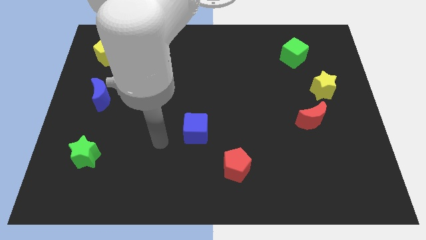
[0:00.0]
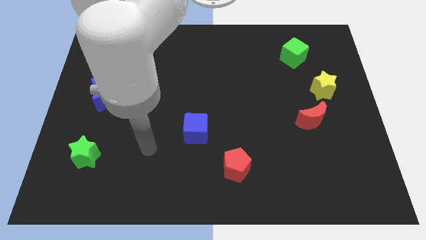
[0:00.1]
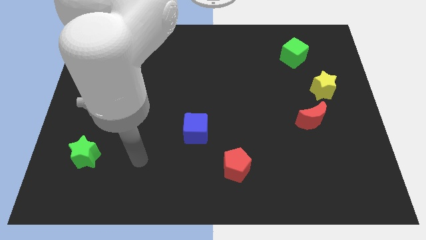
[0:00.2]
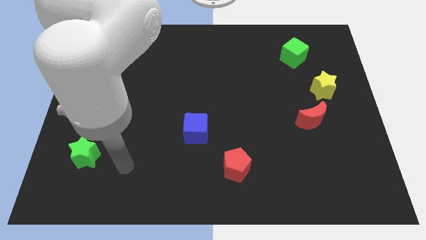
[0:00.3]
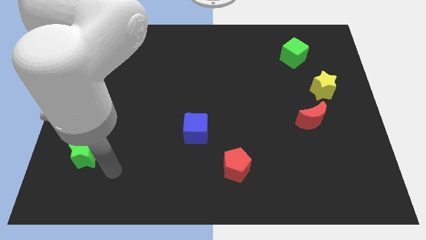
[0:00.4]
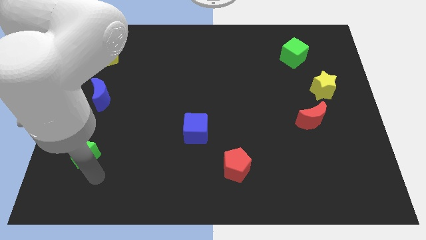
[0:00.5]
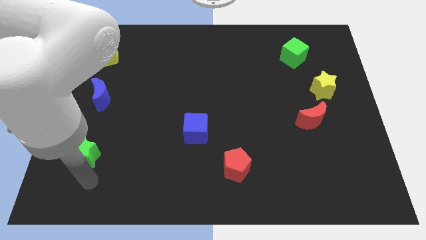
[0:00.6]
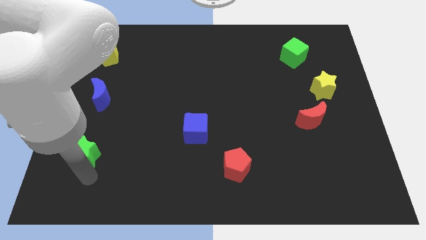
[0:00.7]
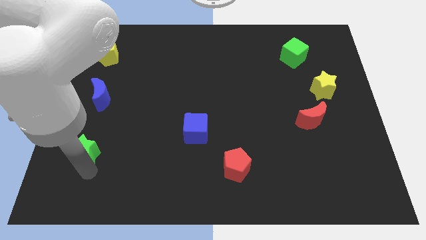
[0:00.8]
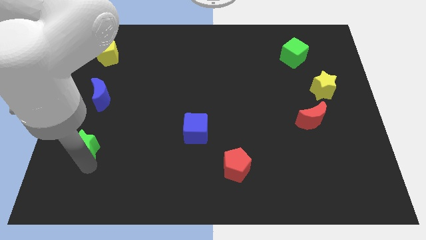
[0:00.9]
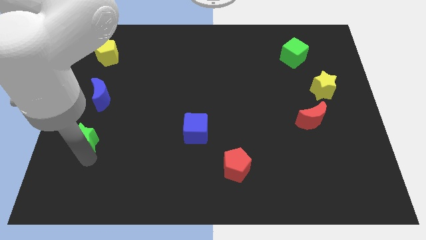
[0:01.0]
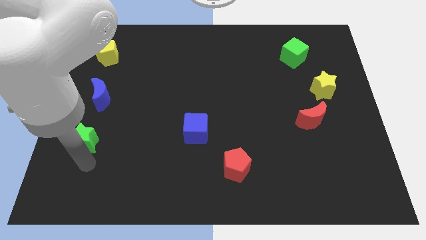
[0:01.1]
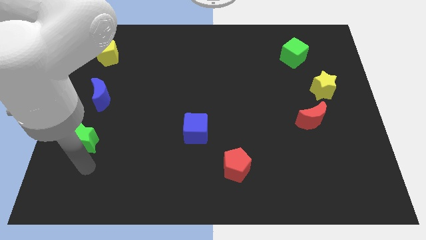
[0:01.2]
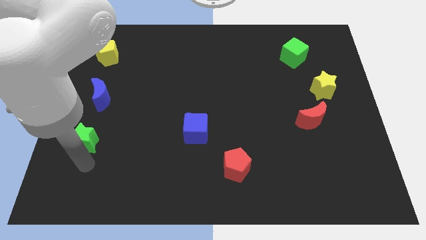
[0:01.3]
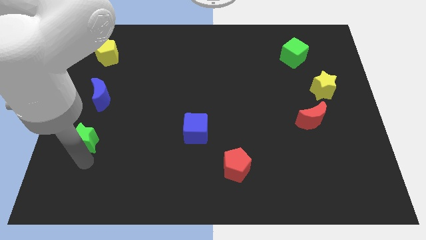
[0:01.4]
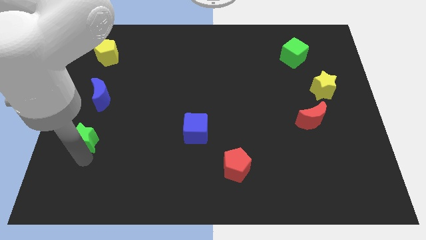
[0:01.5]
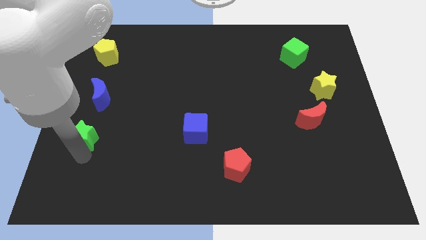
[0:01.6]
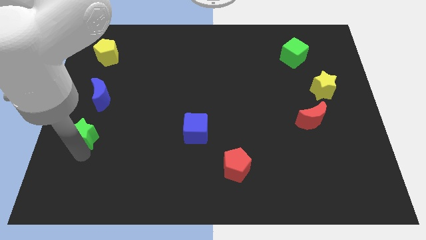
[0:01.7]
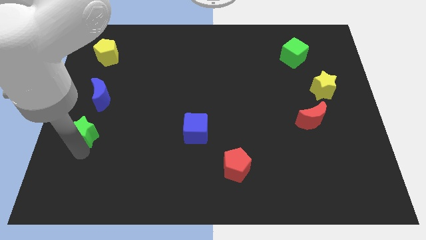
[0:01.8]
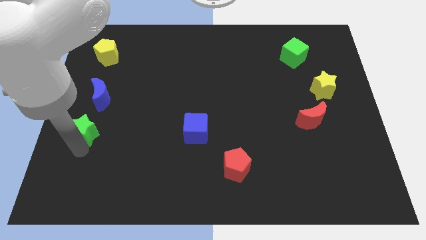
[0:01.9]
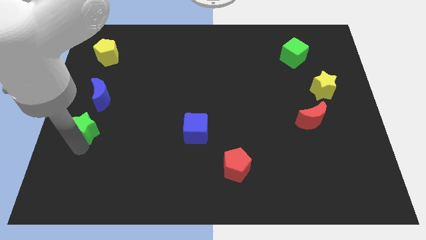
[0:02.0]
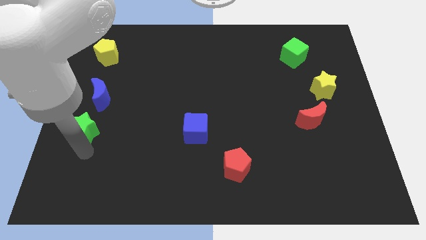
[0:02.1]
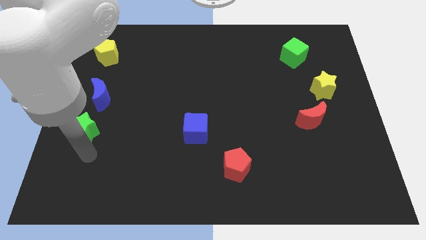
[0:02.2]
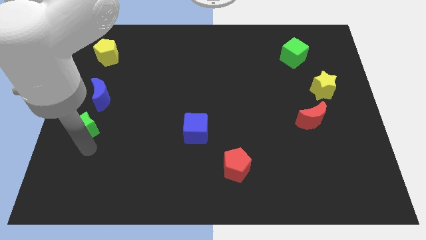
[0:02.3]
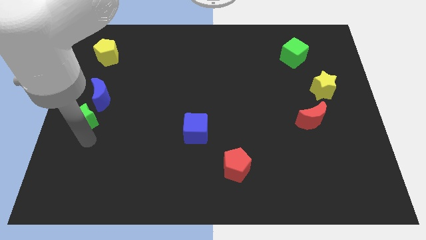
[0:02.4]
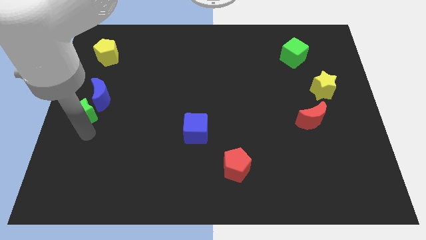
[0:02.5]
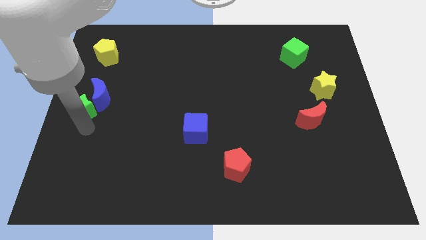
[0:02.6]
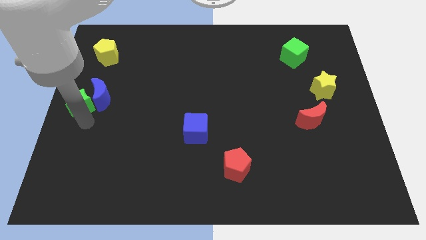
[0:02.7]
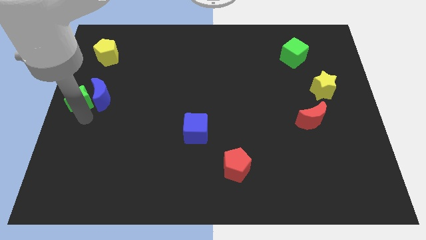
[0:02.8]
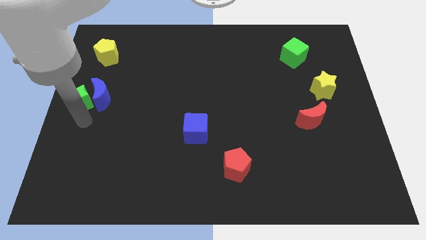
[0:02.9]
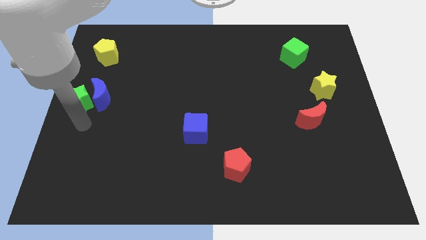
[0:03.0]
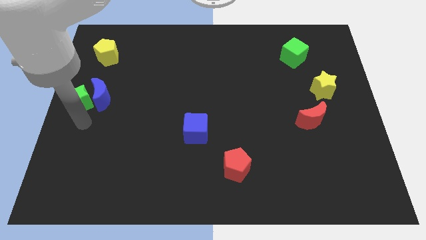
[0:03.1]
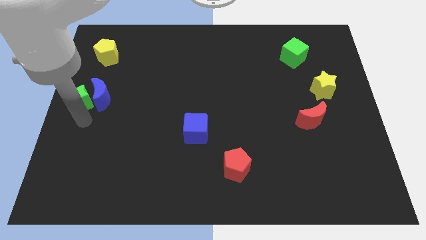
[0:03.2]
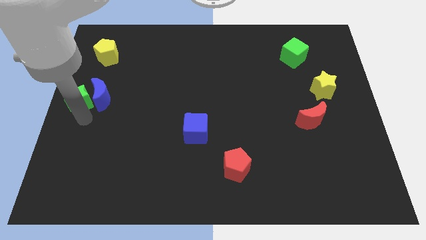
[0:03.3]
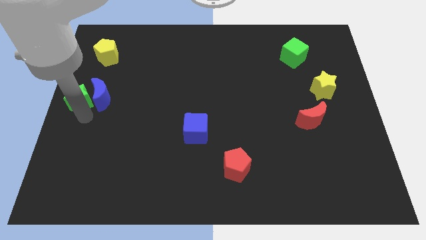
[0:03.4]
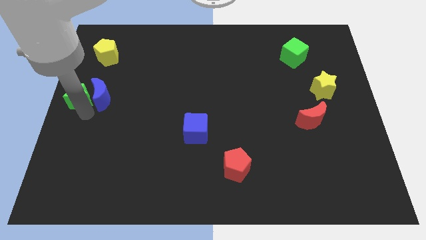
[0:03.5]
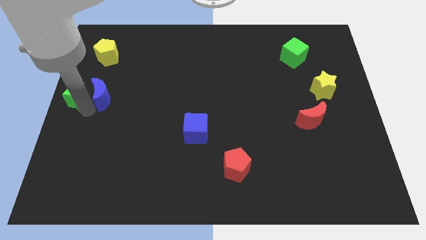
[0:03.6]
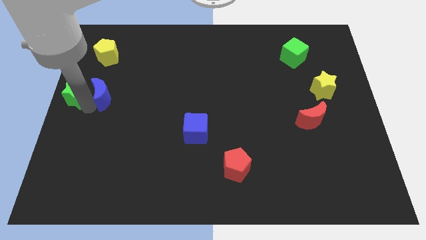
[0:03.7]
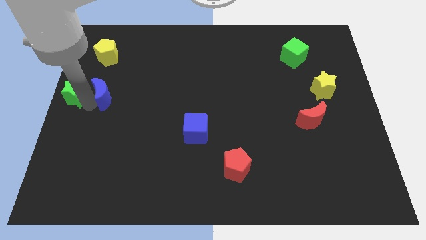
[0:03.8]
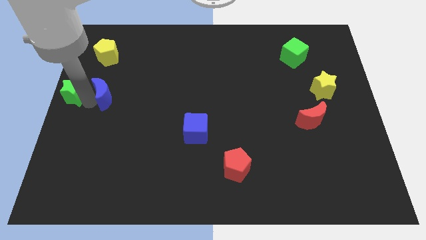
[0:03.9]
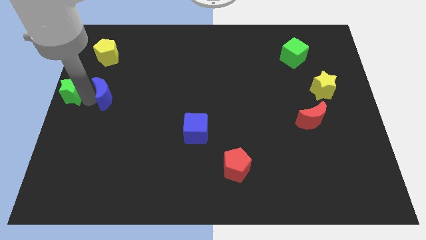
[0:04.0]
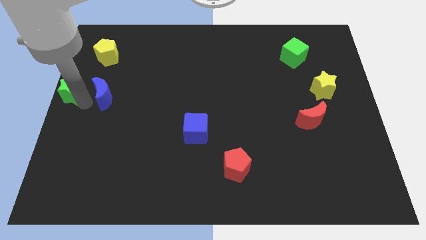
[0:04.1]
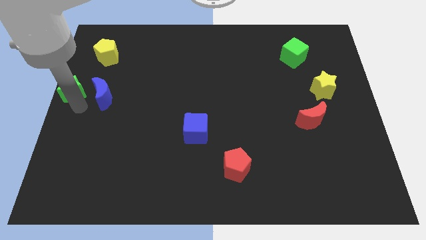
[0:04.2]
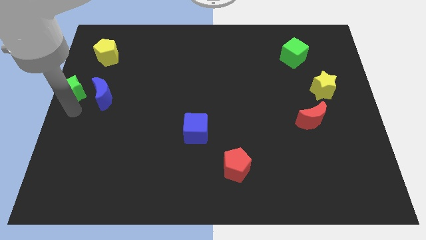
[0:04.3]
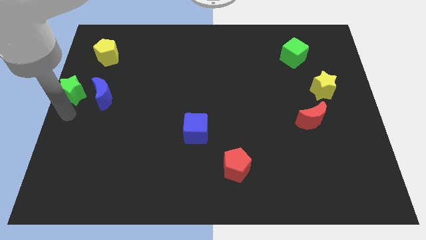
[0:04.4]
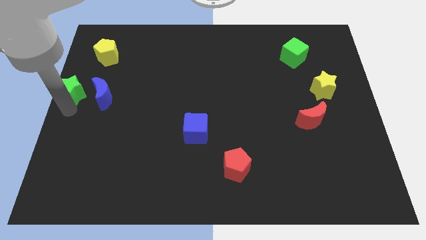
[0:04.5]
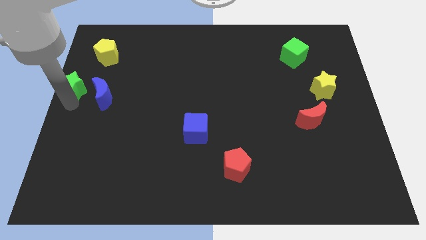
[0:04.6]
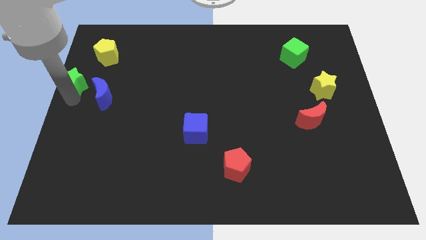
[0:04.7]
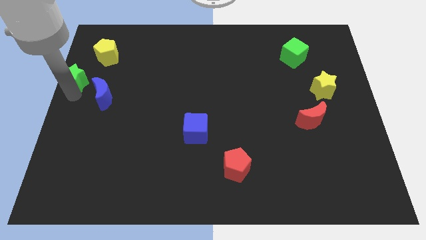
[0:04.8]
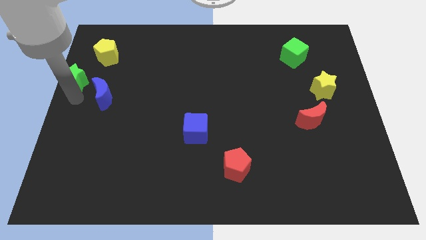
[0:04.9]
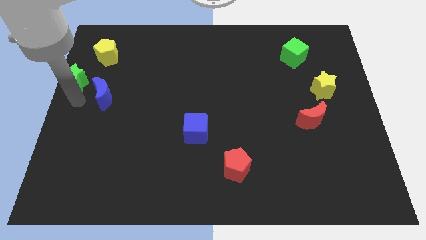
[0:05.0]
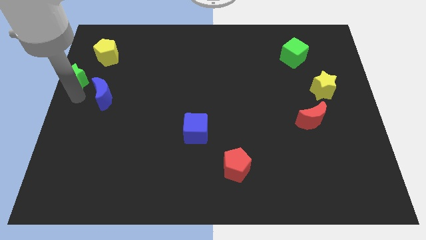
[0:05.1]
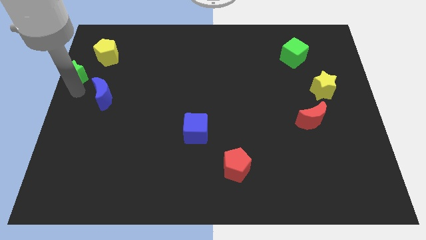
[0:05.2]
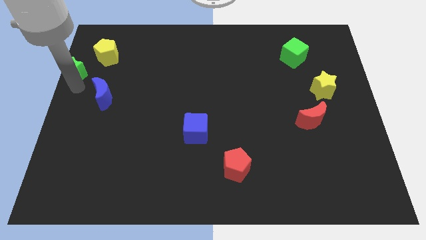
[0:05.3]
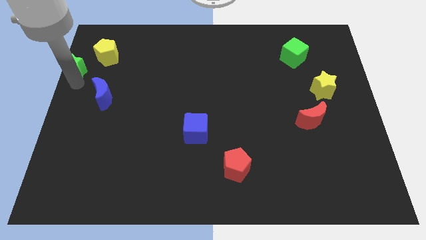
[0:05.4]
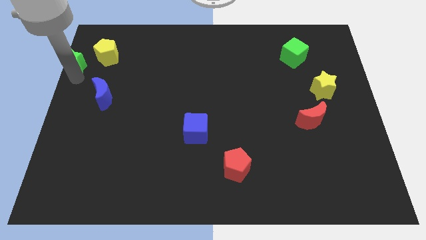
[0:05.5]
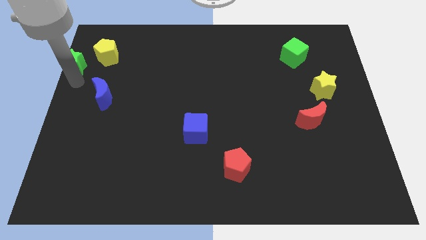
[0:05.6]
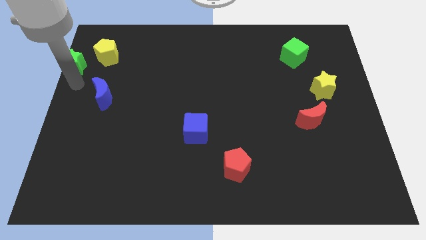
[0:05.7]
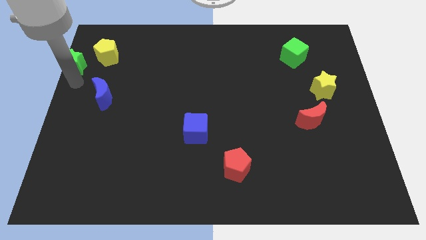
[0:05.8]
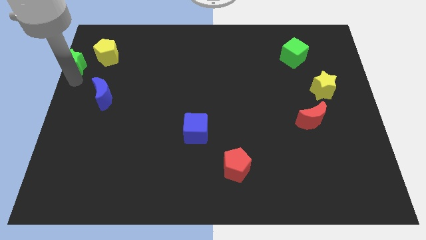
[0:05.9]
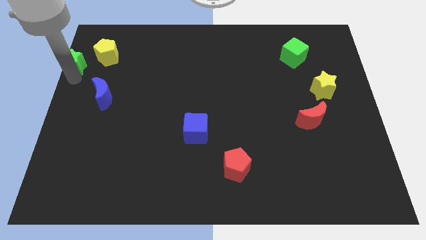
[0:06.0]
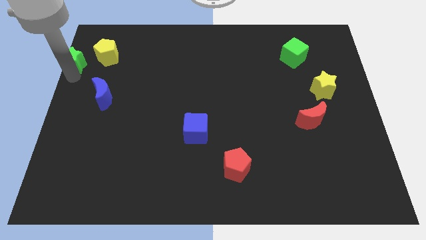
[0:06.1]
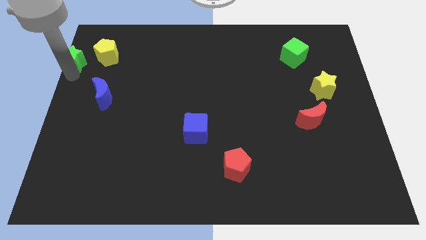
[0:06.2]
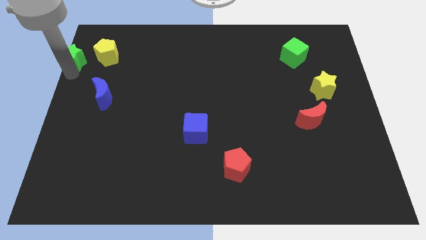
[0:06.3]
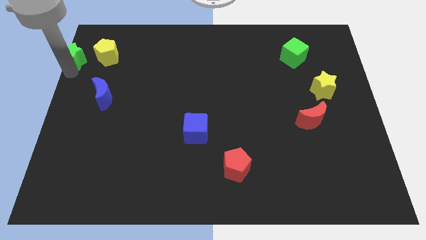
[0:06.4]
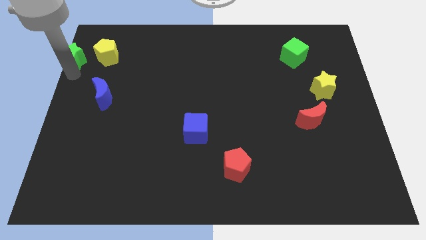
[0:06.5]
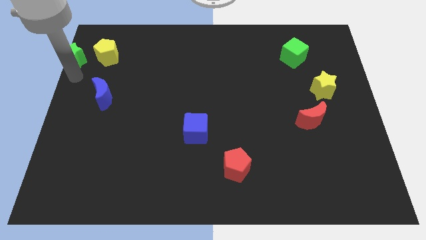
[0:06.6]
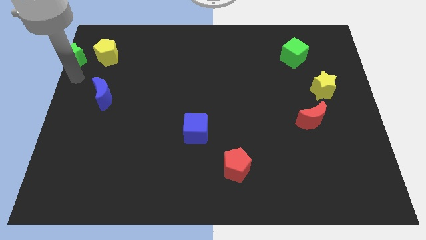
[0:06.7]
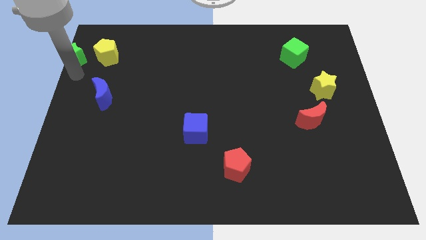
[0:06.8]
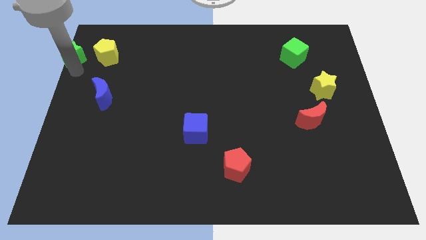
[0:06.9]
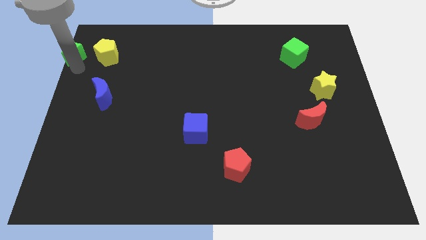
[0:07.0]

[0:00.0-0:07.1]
put the green star to the top left corner
